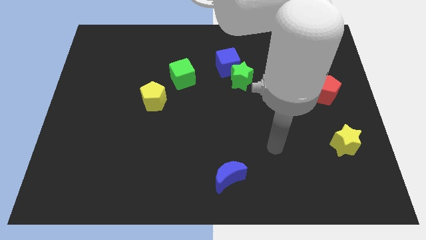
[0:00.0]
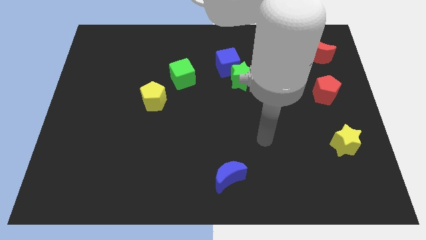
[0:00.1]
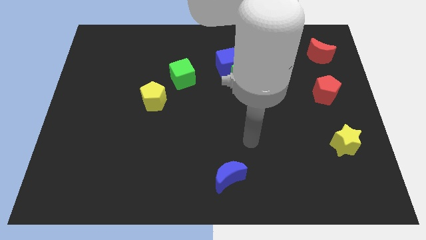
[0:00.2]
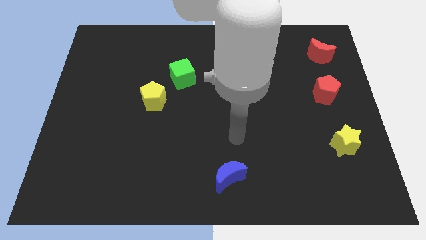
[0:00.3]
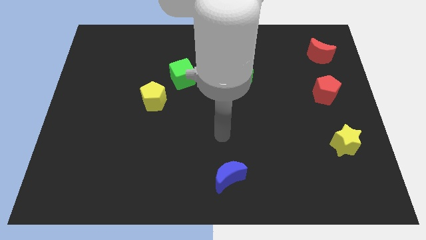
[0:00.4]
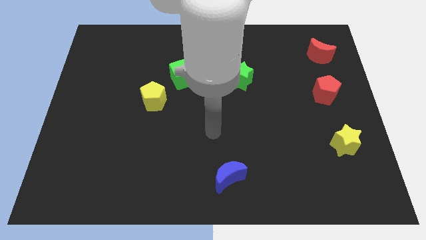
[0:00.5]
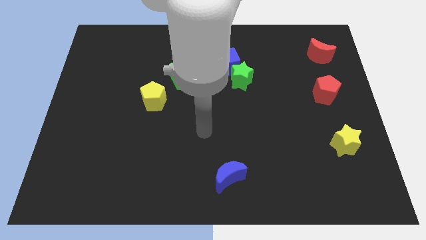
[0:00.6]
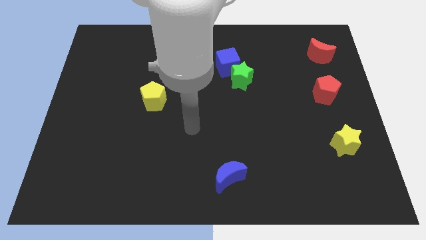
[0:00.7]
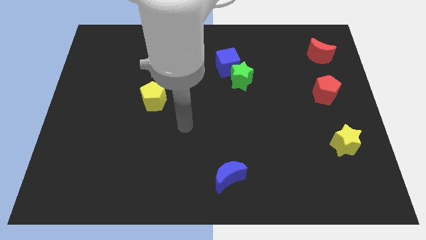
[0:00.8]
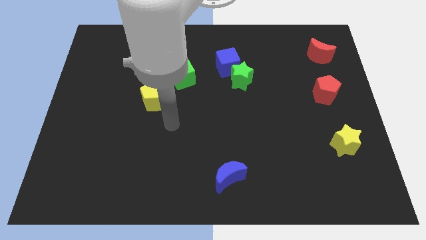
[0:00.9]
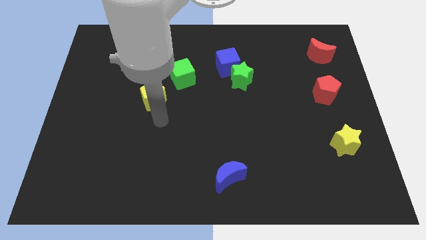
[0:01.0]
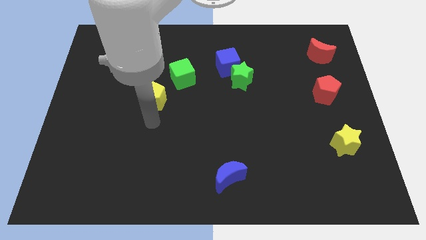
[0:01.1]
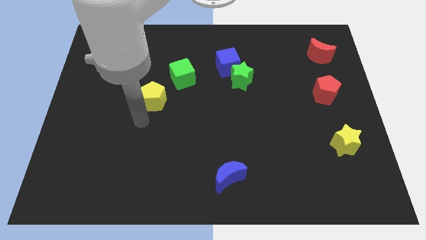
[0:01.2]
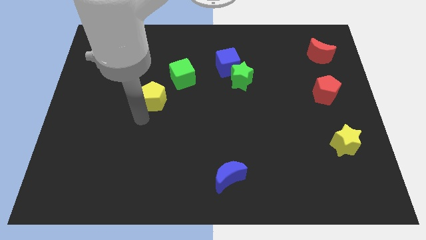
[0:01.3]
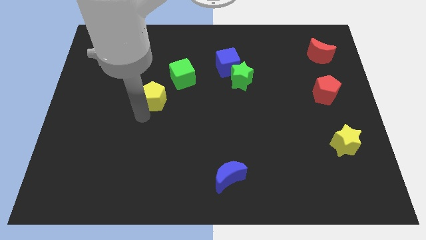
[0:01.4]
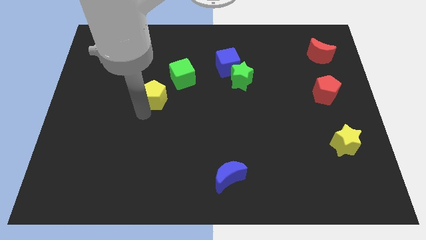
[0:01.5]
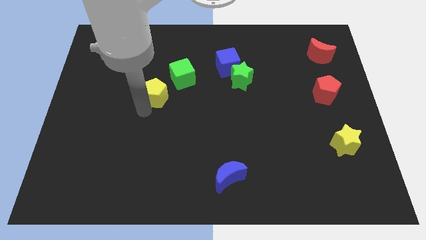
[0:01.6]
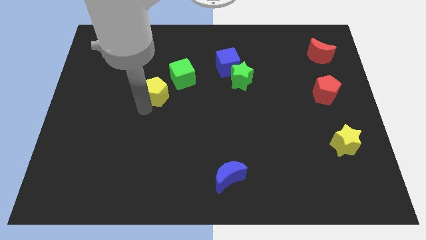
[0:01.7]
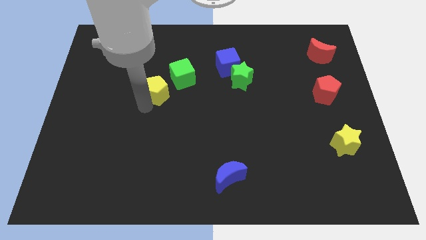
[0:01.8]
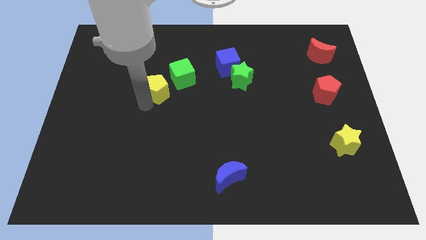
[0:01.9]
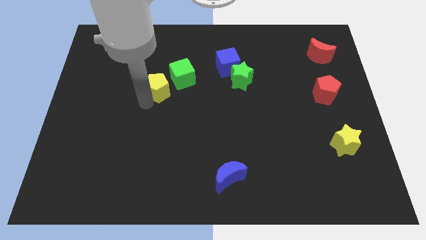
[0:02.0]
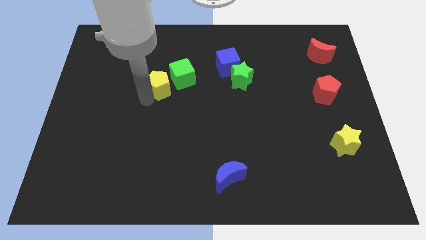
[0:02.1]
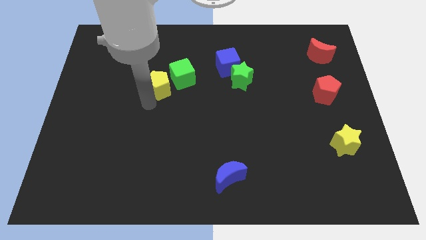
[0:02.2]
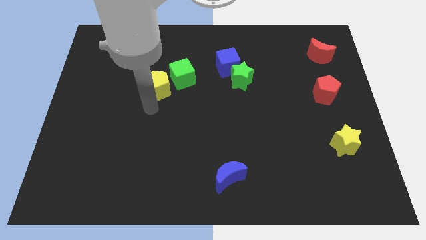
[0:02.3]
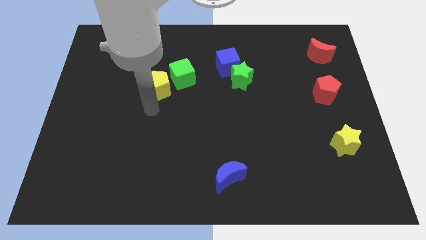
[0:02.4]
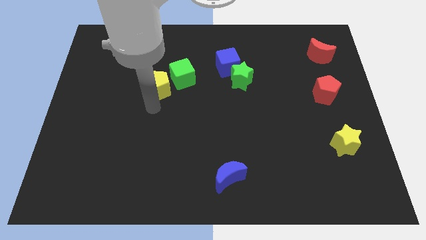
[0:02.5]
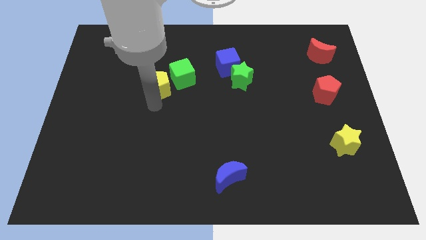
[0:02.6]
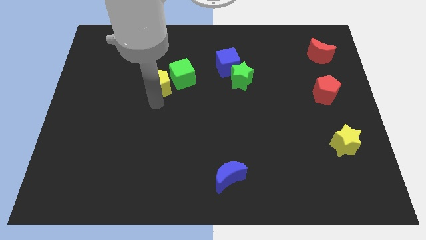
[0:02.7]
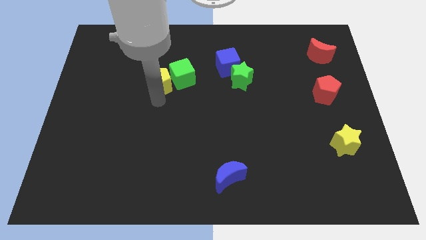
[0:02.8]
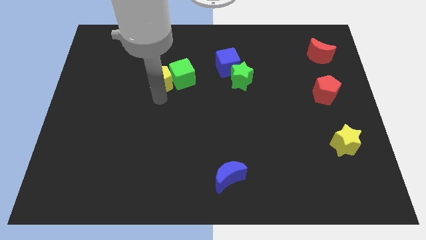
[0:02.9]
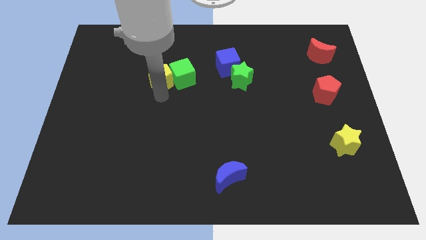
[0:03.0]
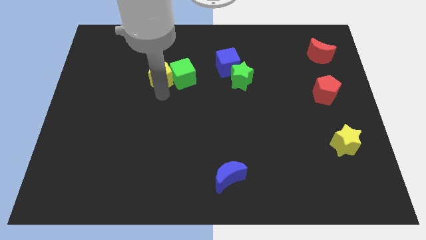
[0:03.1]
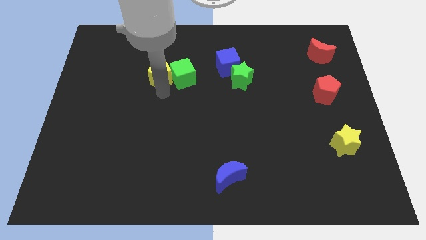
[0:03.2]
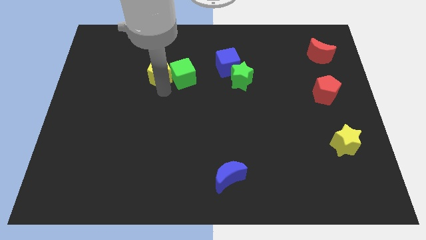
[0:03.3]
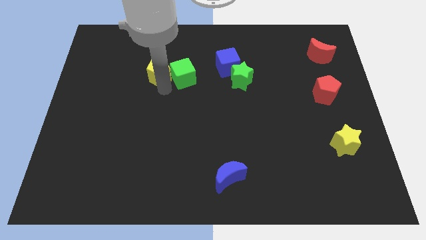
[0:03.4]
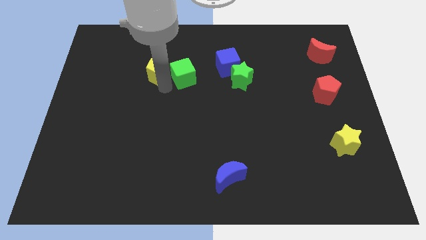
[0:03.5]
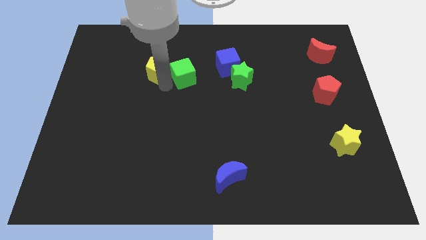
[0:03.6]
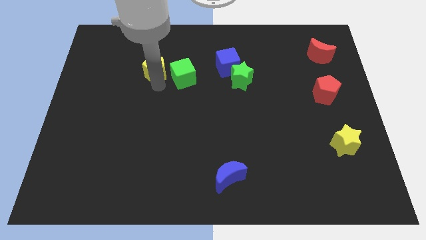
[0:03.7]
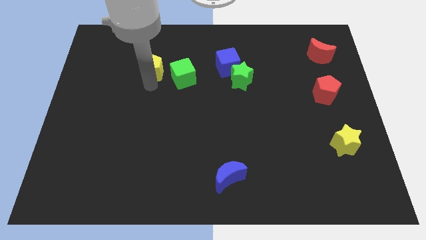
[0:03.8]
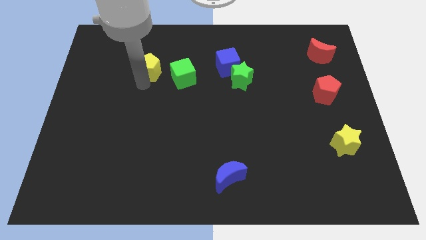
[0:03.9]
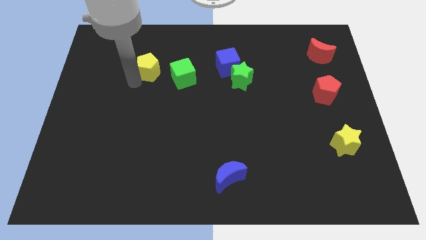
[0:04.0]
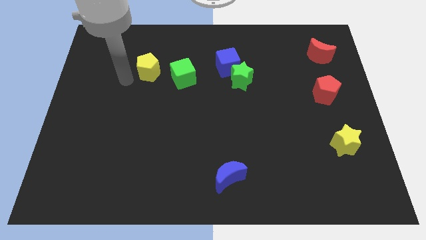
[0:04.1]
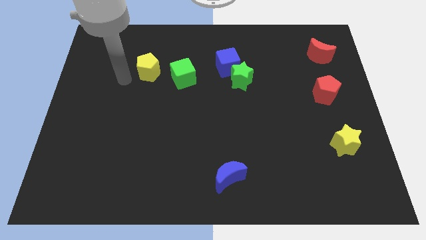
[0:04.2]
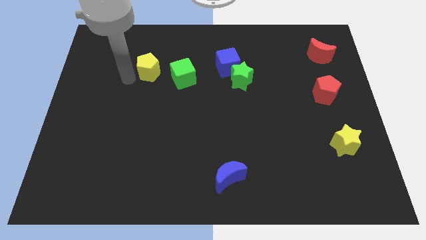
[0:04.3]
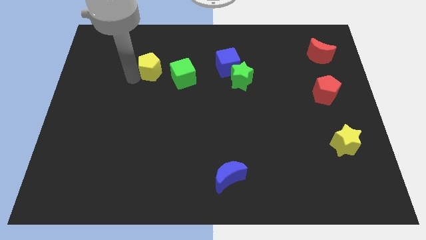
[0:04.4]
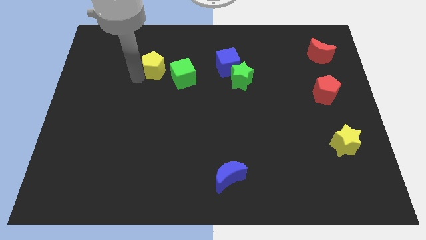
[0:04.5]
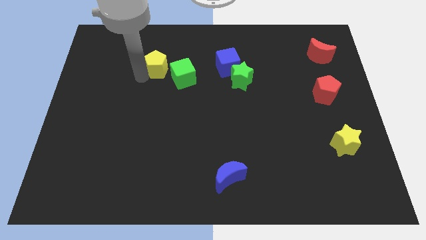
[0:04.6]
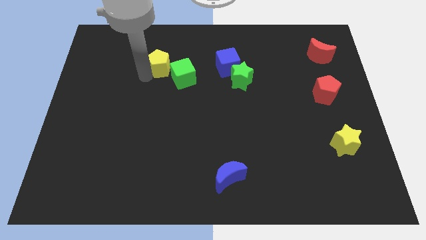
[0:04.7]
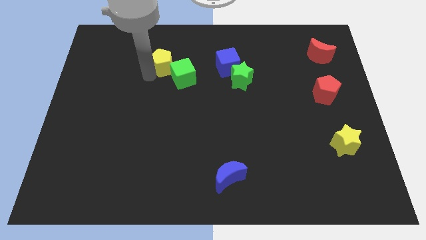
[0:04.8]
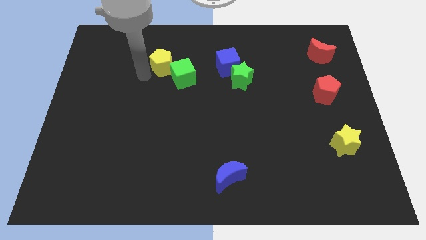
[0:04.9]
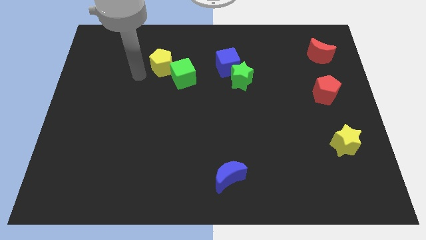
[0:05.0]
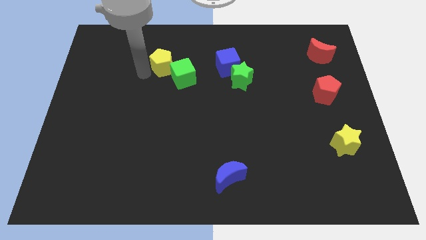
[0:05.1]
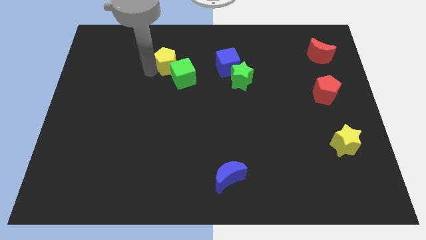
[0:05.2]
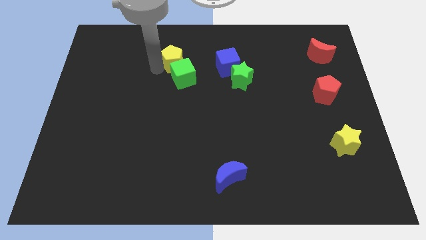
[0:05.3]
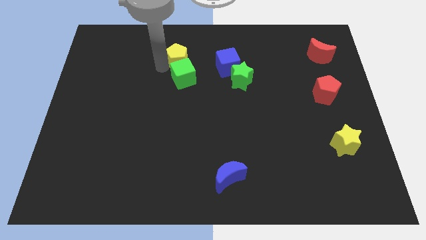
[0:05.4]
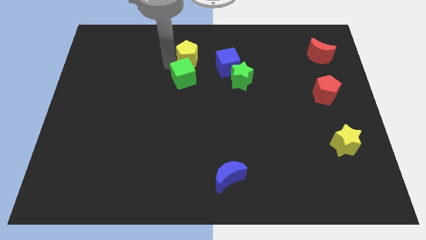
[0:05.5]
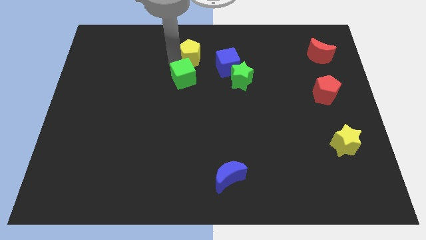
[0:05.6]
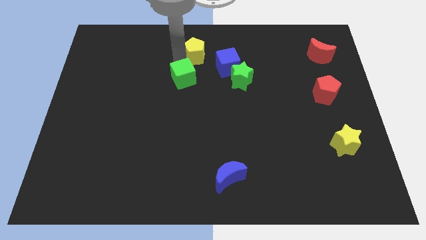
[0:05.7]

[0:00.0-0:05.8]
push the yellow pentagon to the top side

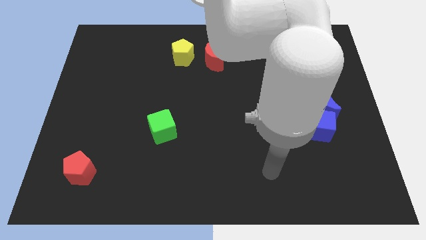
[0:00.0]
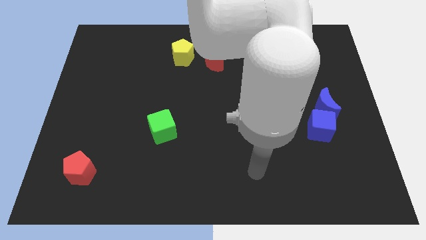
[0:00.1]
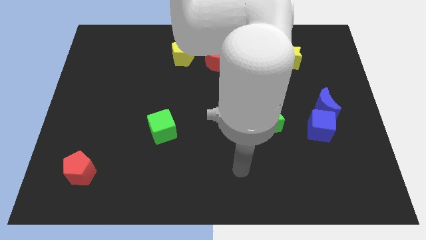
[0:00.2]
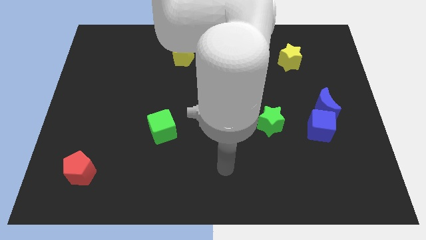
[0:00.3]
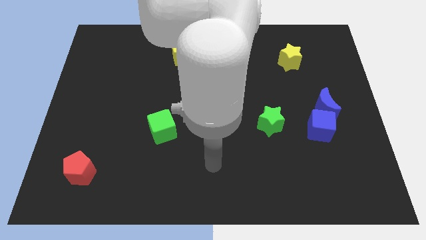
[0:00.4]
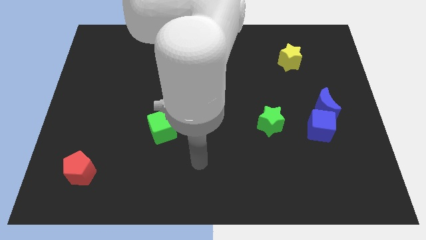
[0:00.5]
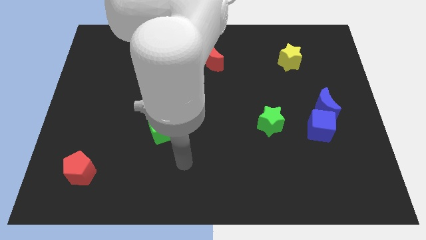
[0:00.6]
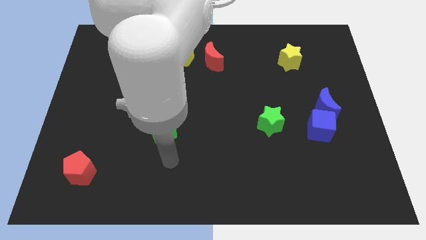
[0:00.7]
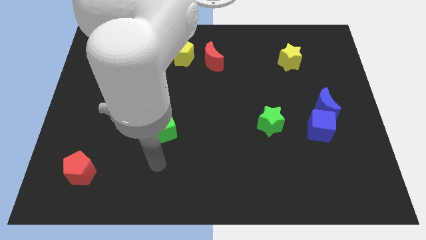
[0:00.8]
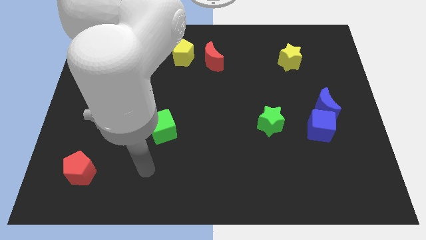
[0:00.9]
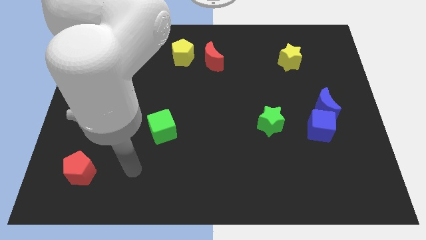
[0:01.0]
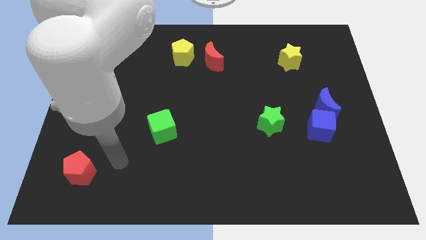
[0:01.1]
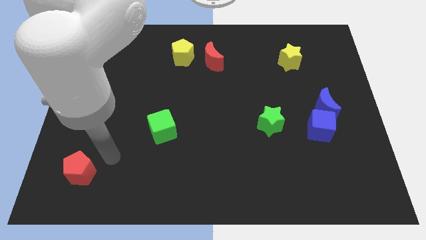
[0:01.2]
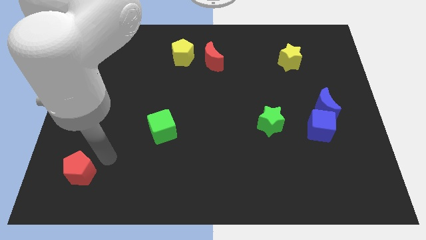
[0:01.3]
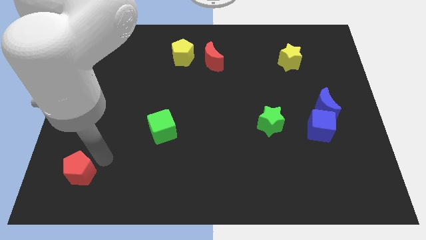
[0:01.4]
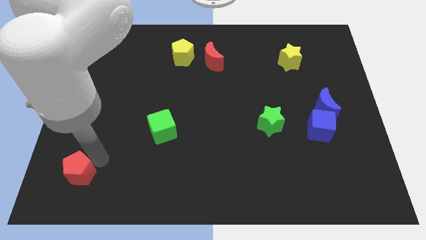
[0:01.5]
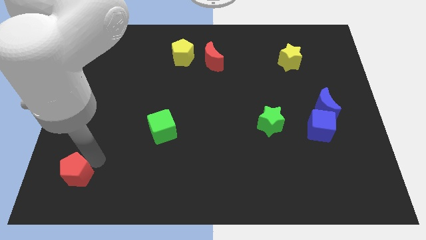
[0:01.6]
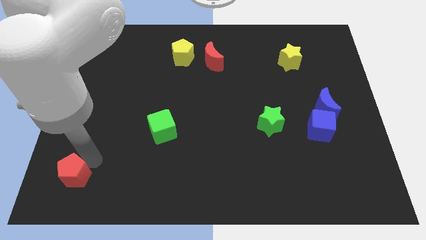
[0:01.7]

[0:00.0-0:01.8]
put the red pentagon to the bottom left

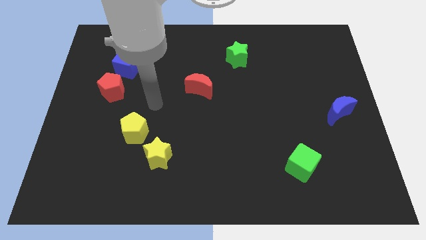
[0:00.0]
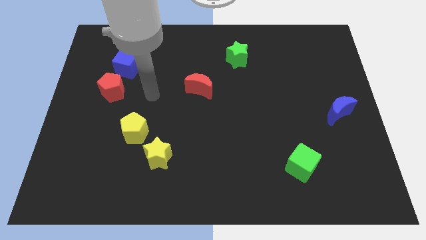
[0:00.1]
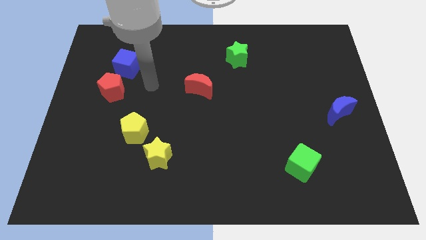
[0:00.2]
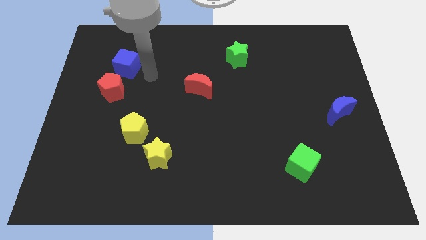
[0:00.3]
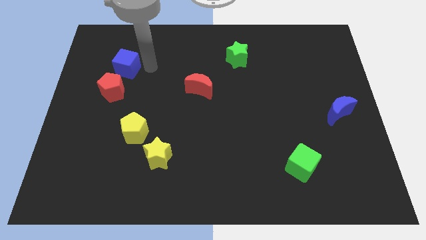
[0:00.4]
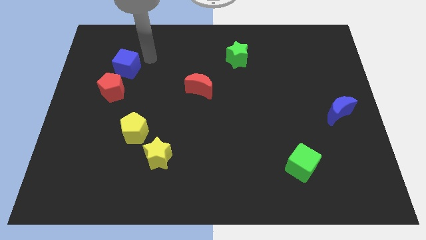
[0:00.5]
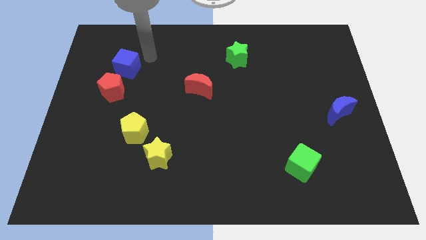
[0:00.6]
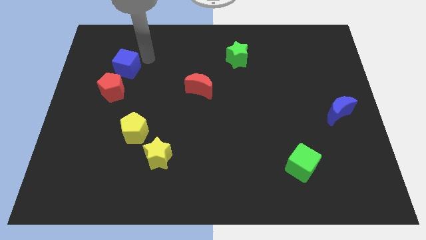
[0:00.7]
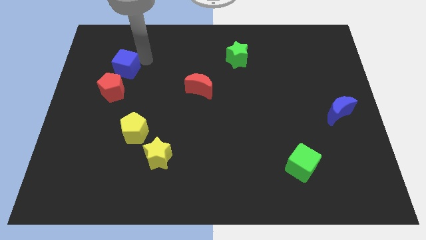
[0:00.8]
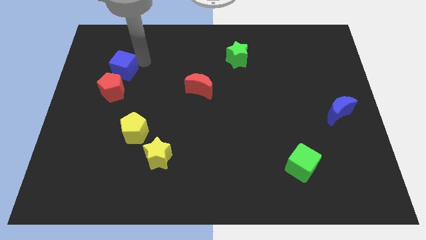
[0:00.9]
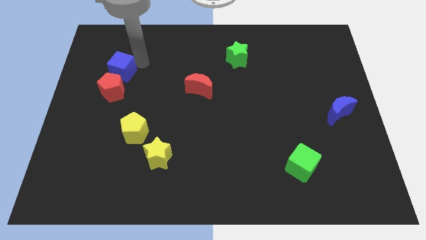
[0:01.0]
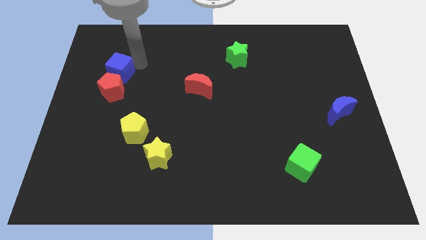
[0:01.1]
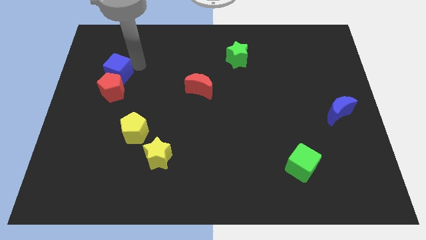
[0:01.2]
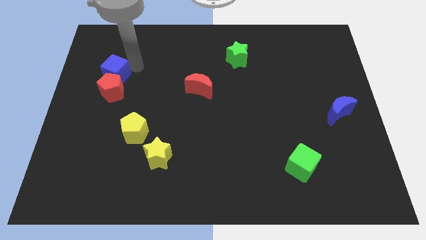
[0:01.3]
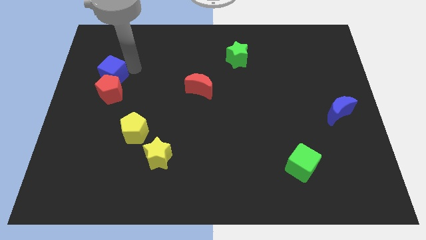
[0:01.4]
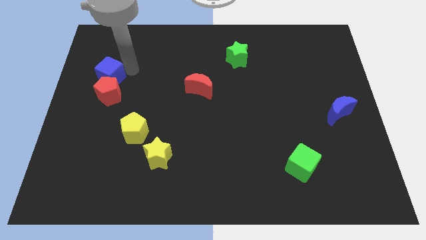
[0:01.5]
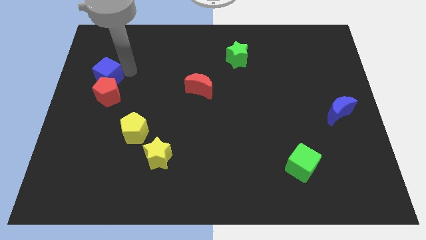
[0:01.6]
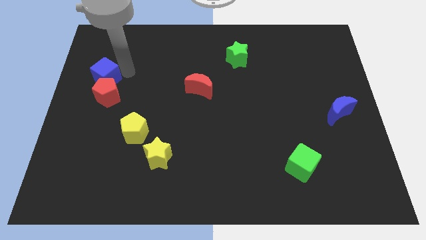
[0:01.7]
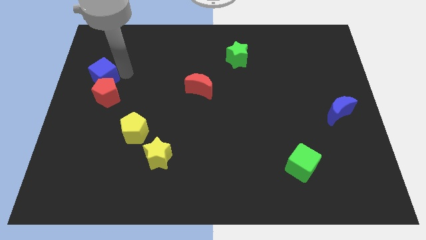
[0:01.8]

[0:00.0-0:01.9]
push the blue cube to the center left
